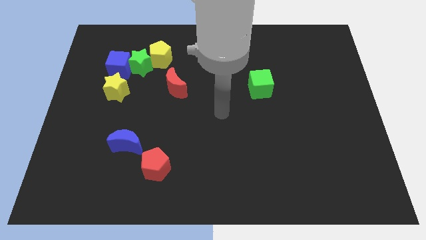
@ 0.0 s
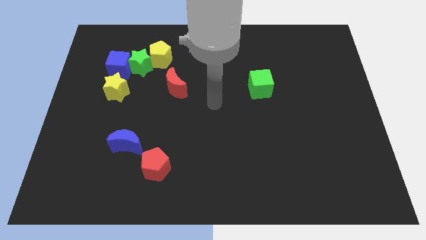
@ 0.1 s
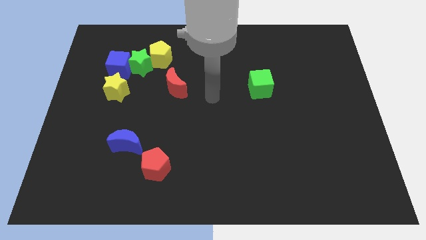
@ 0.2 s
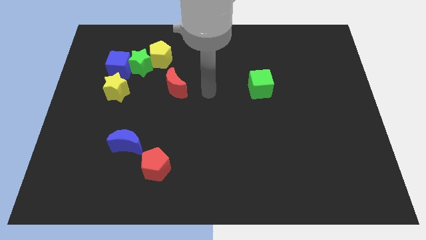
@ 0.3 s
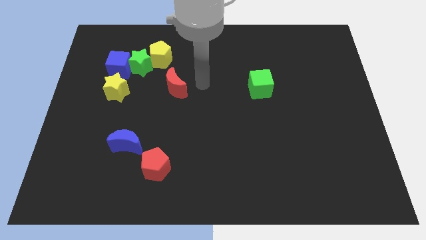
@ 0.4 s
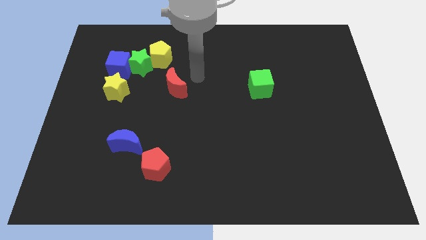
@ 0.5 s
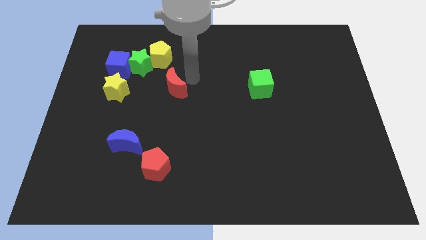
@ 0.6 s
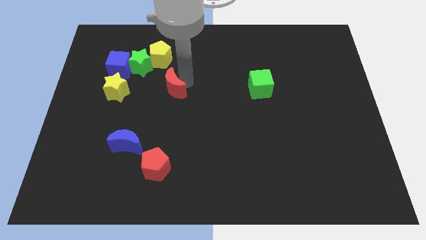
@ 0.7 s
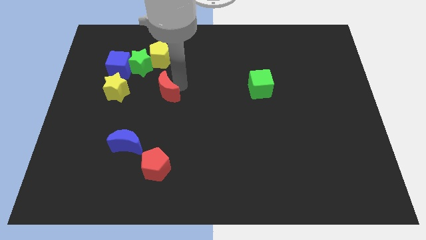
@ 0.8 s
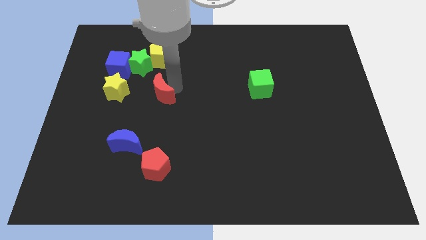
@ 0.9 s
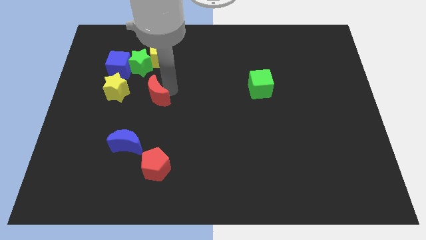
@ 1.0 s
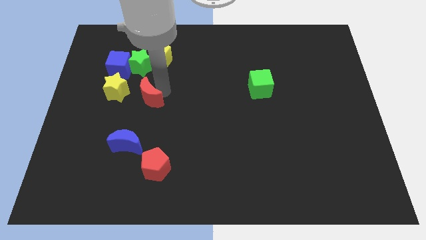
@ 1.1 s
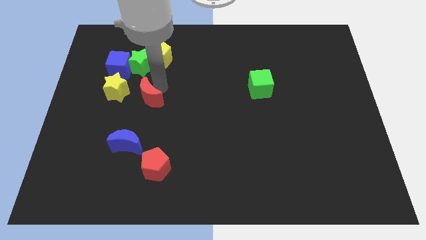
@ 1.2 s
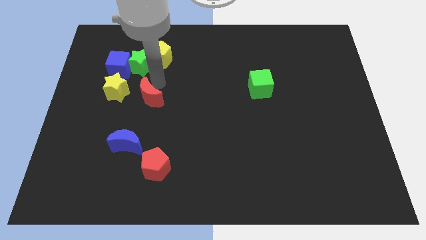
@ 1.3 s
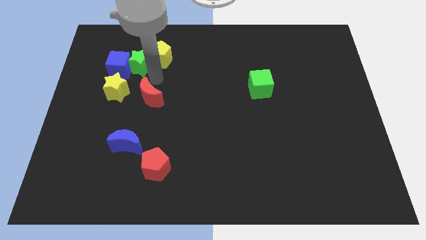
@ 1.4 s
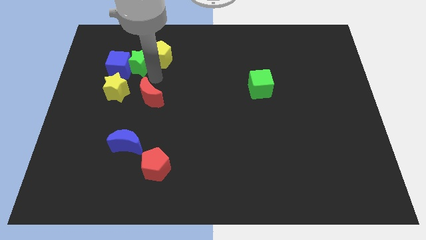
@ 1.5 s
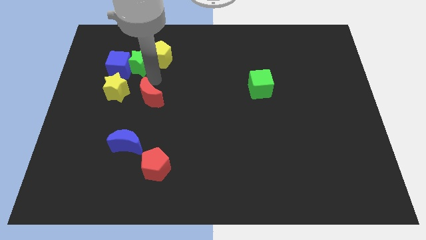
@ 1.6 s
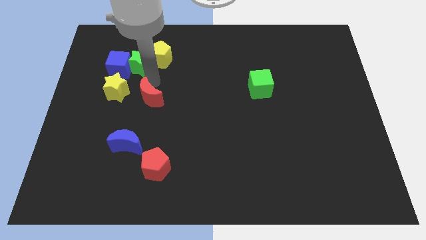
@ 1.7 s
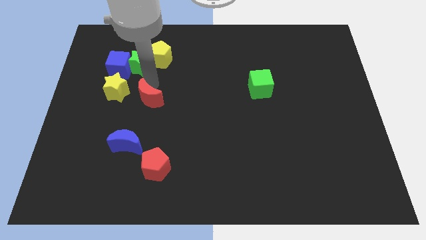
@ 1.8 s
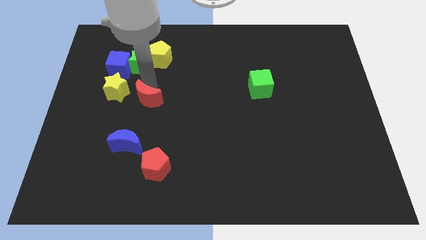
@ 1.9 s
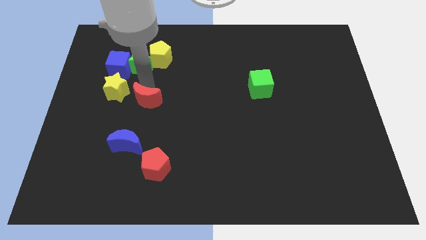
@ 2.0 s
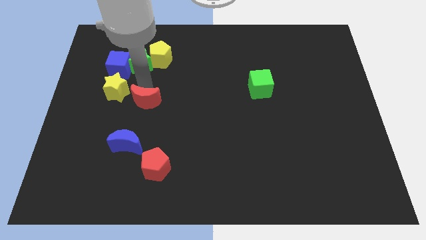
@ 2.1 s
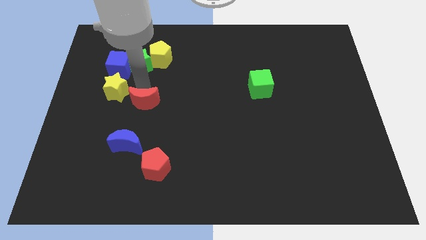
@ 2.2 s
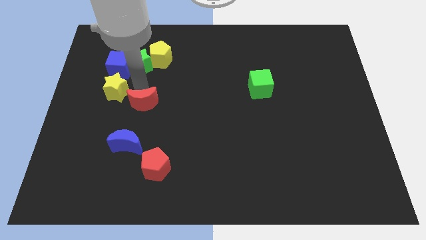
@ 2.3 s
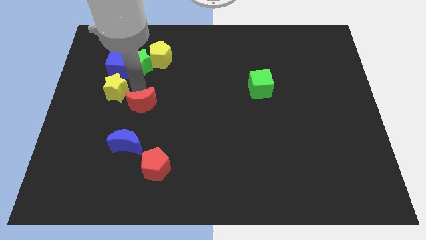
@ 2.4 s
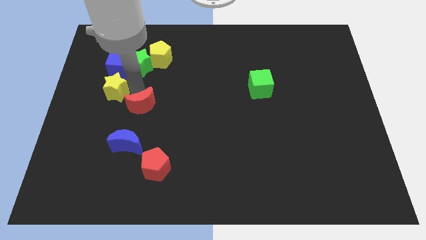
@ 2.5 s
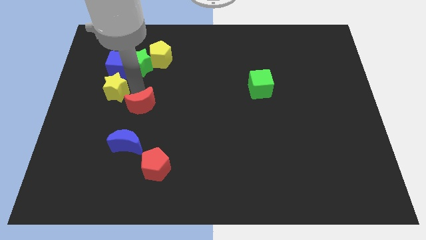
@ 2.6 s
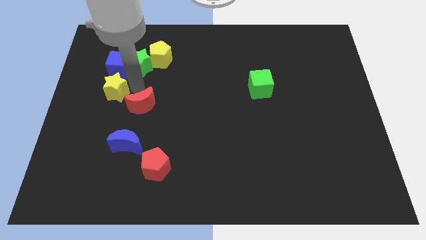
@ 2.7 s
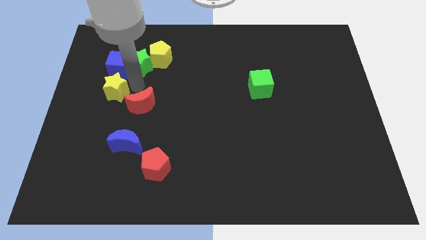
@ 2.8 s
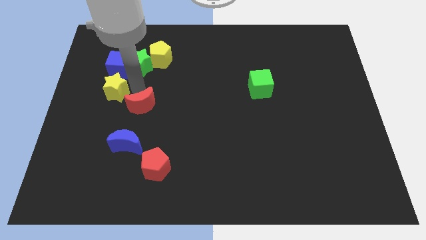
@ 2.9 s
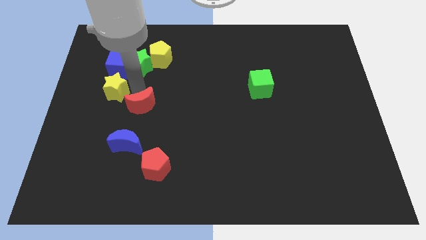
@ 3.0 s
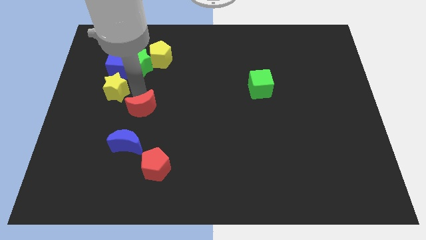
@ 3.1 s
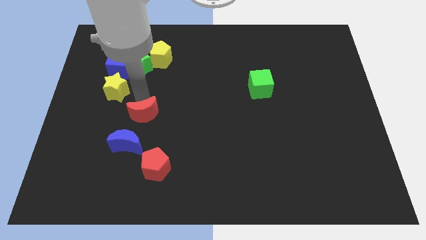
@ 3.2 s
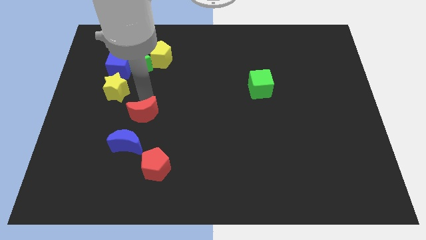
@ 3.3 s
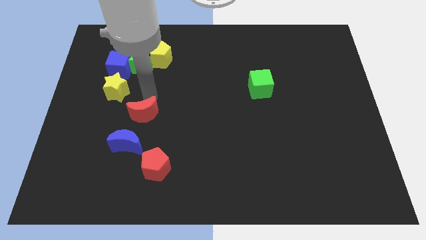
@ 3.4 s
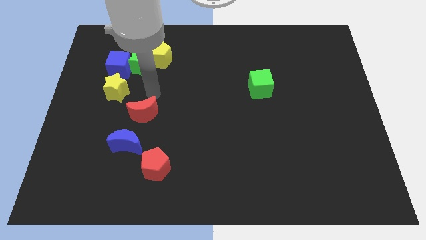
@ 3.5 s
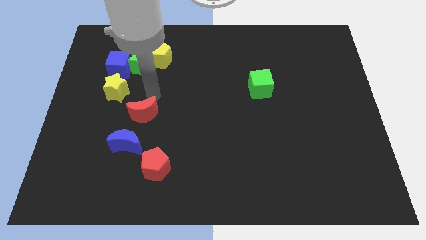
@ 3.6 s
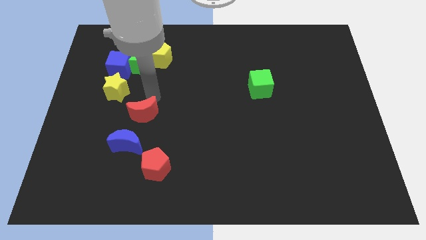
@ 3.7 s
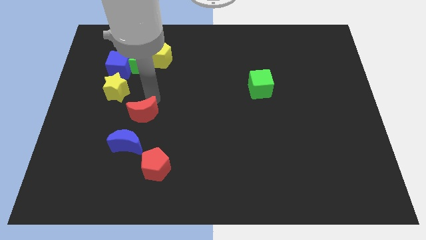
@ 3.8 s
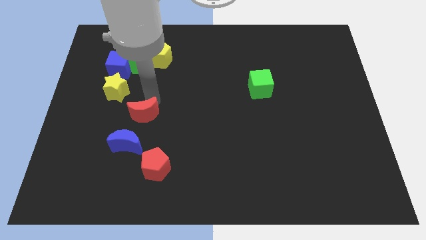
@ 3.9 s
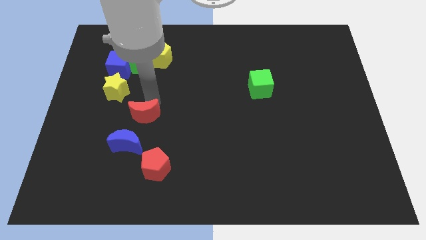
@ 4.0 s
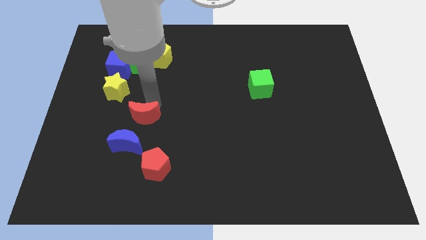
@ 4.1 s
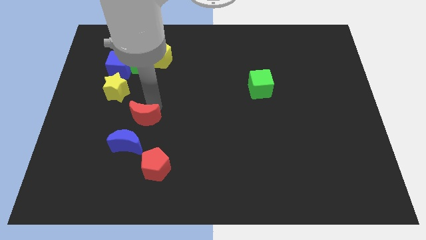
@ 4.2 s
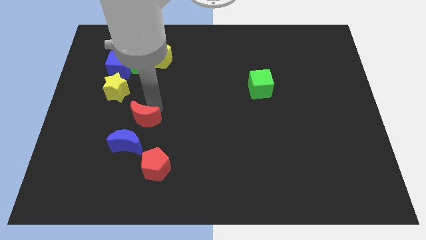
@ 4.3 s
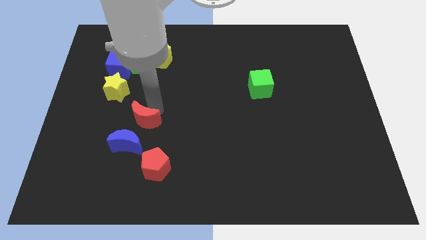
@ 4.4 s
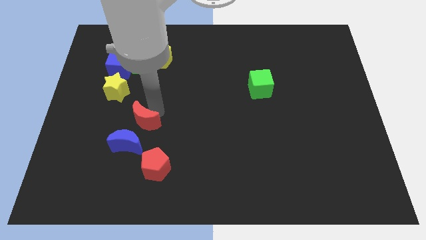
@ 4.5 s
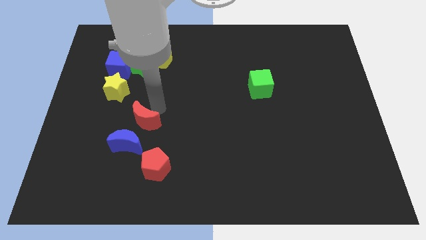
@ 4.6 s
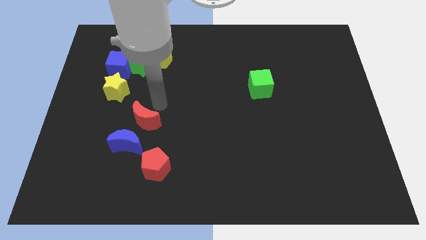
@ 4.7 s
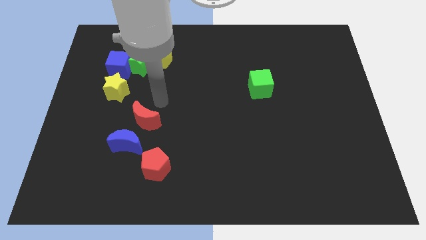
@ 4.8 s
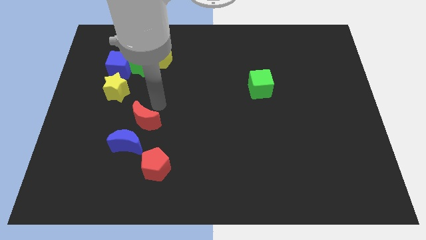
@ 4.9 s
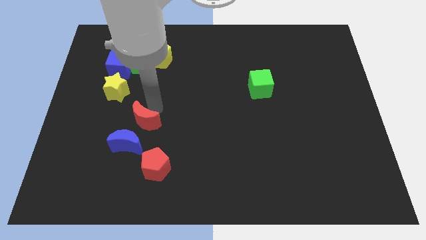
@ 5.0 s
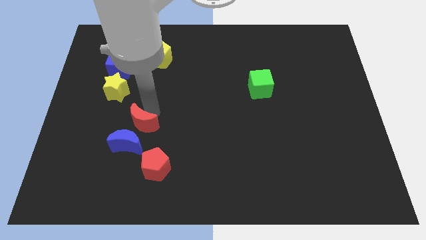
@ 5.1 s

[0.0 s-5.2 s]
put the red moon towards the blue moon
